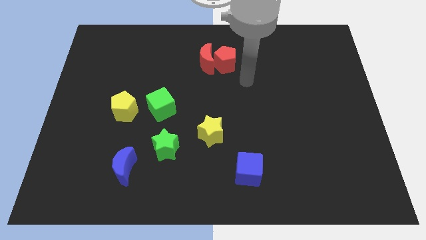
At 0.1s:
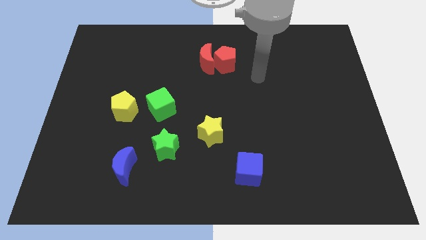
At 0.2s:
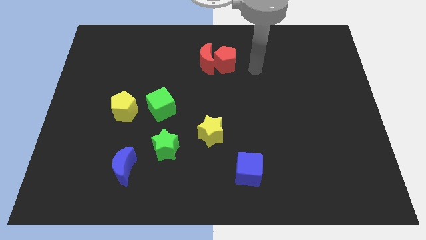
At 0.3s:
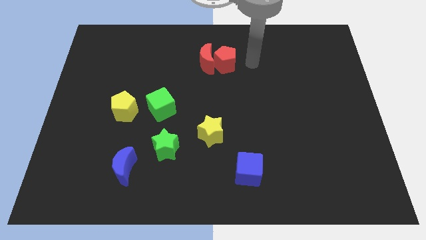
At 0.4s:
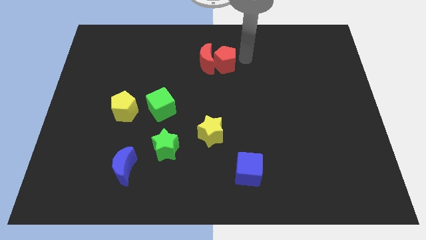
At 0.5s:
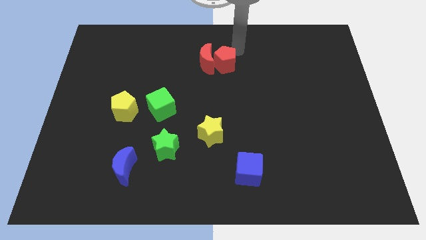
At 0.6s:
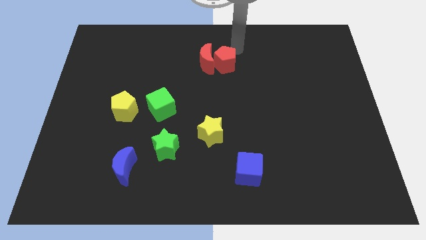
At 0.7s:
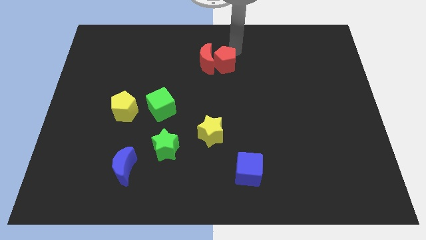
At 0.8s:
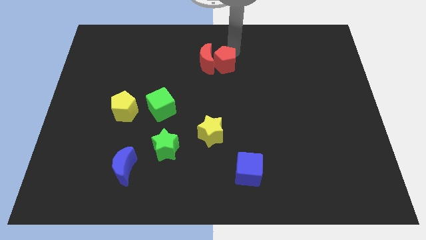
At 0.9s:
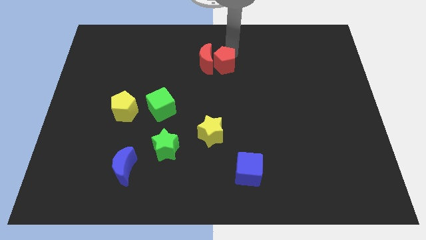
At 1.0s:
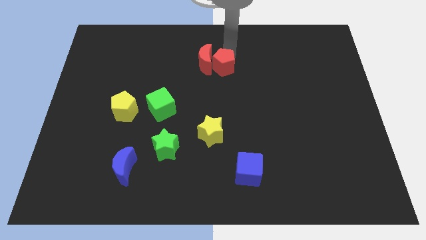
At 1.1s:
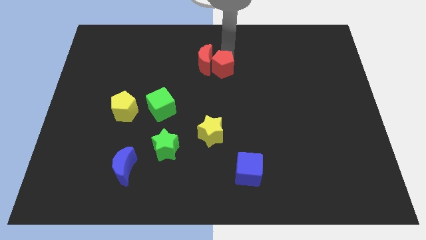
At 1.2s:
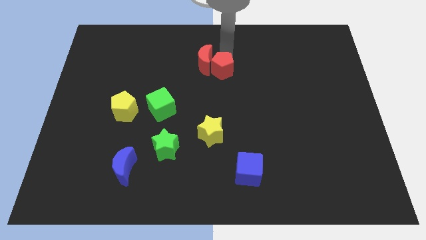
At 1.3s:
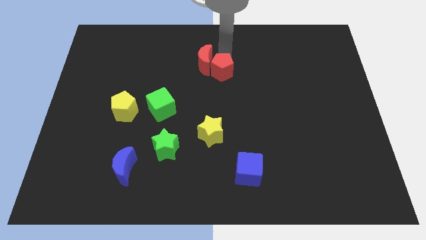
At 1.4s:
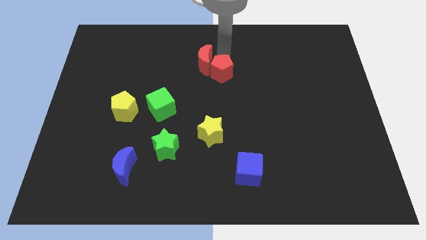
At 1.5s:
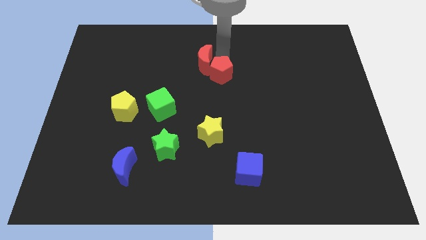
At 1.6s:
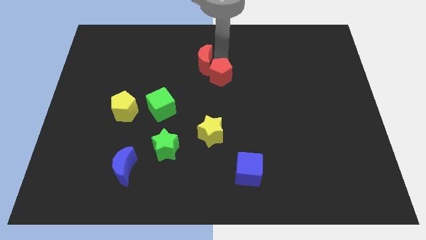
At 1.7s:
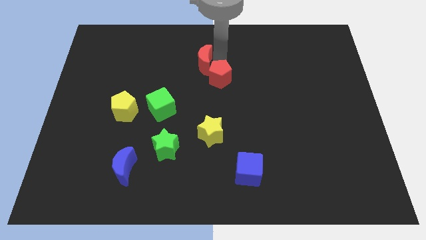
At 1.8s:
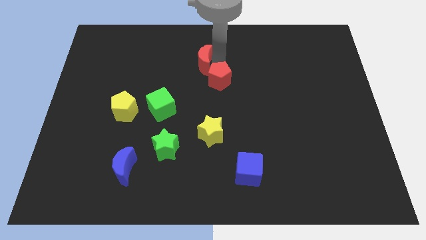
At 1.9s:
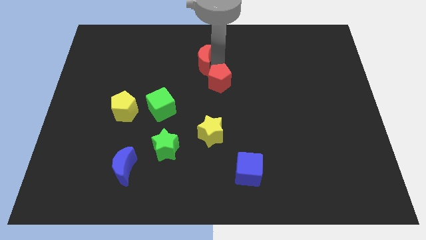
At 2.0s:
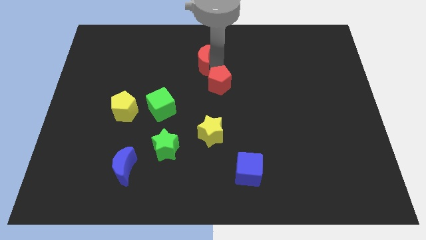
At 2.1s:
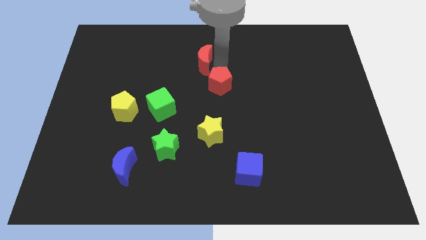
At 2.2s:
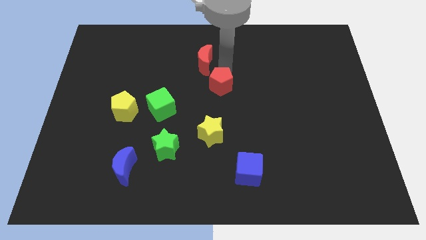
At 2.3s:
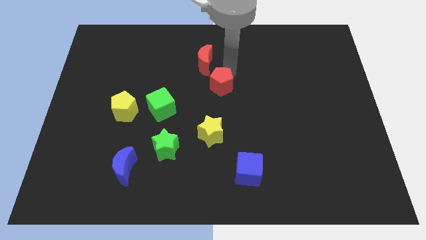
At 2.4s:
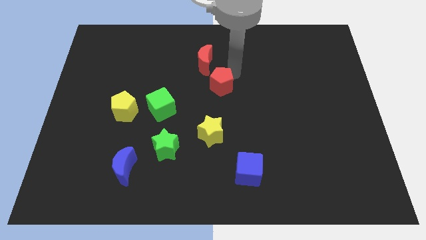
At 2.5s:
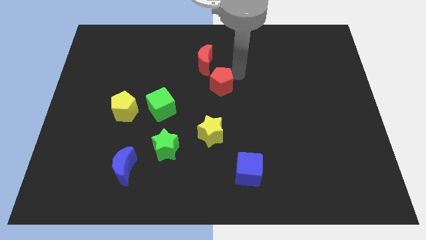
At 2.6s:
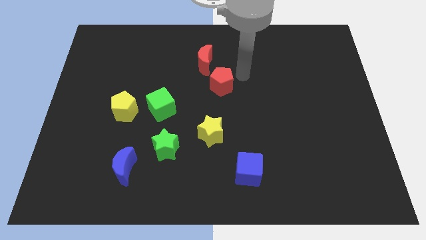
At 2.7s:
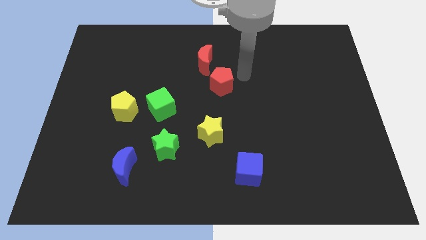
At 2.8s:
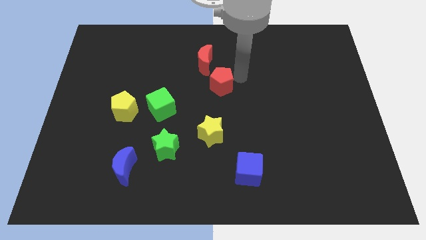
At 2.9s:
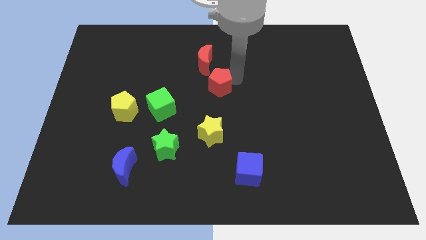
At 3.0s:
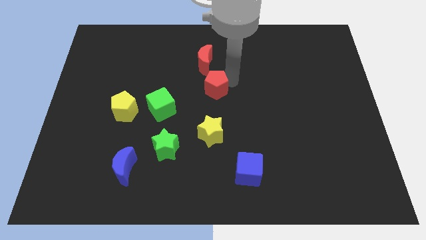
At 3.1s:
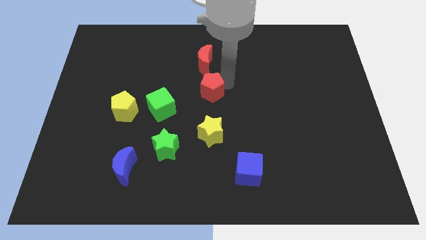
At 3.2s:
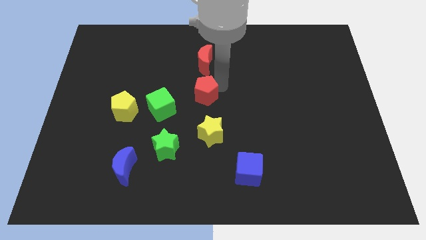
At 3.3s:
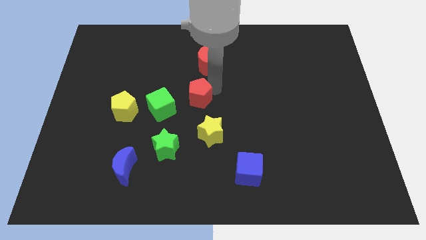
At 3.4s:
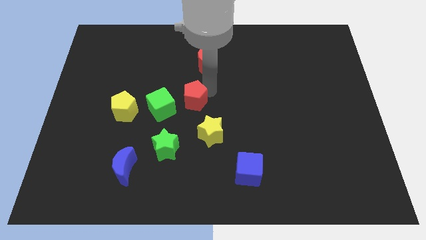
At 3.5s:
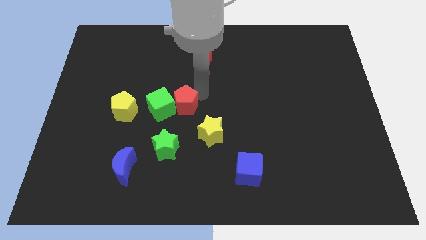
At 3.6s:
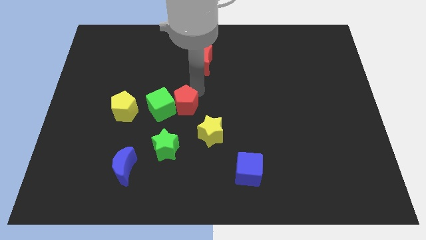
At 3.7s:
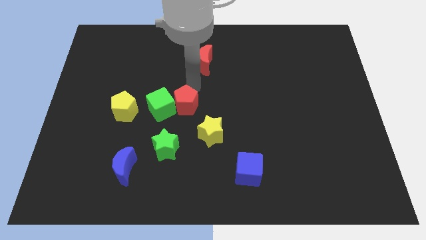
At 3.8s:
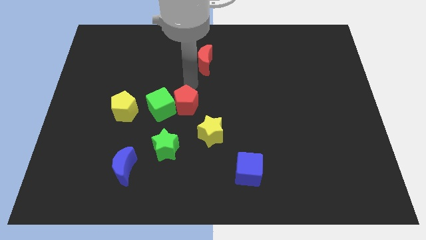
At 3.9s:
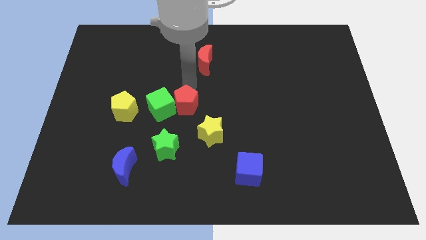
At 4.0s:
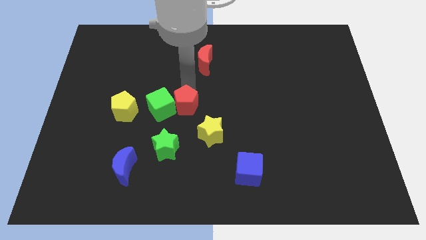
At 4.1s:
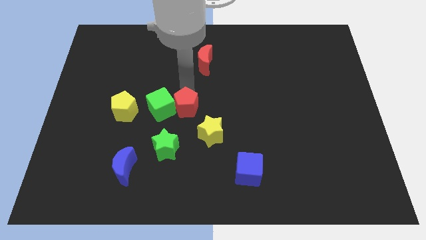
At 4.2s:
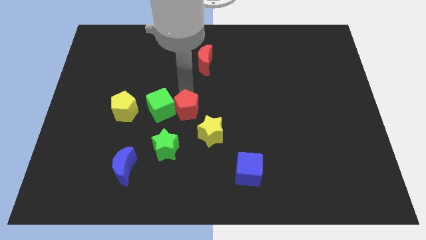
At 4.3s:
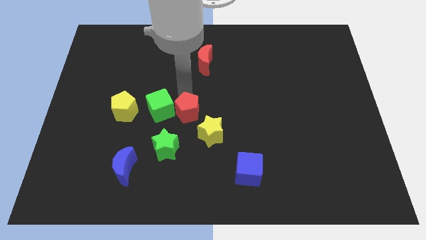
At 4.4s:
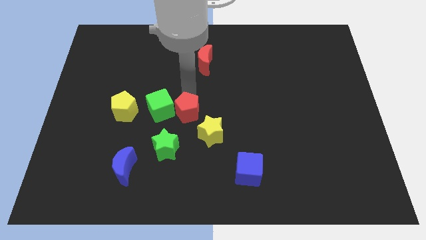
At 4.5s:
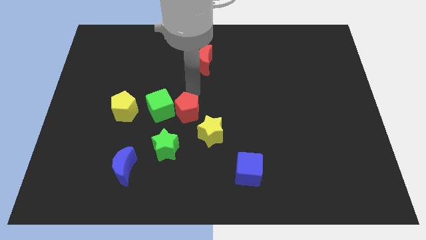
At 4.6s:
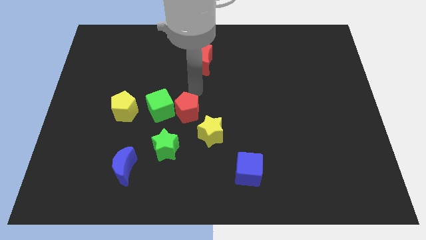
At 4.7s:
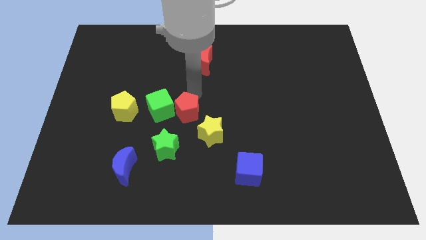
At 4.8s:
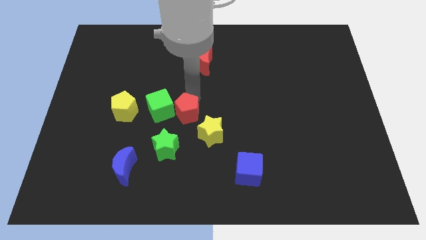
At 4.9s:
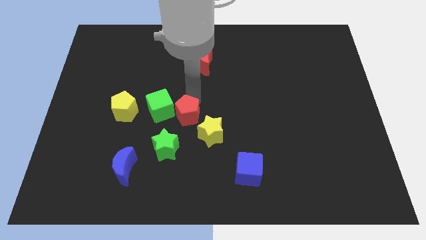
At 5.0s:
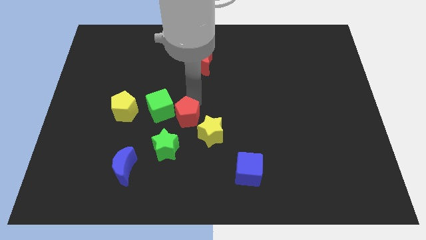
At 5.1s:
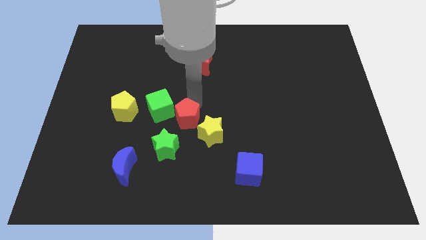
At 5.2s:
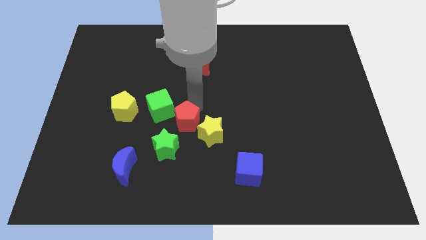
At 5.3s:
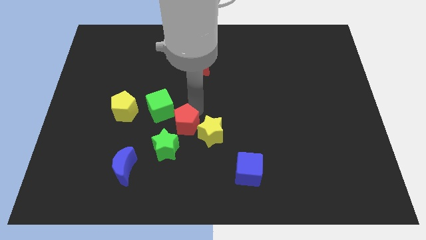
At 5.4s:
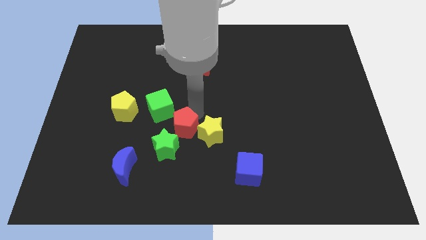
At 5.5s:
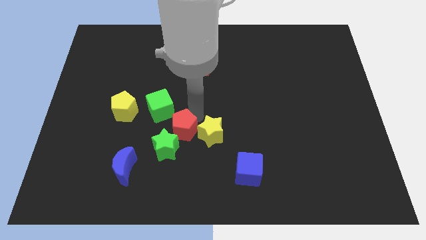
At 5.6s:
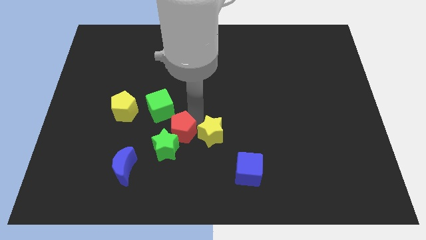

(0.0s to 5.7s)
move the red pentagon close to the green star

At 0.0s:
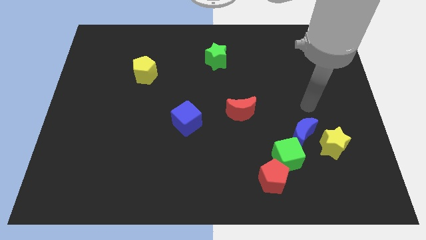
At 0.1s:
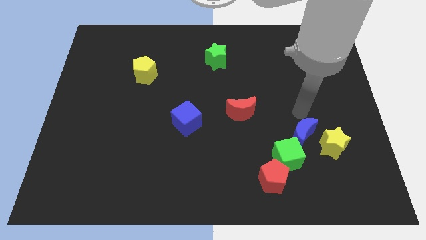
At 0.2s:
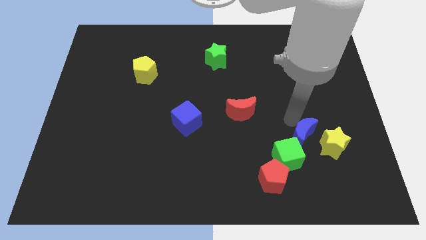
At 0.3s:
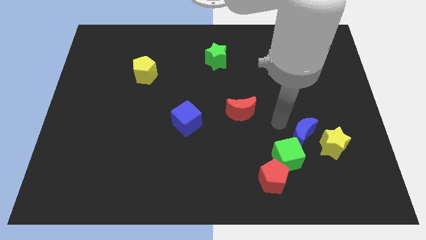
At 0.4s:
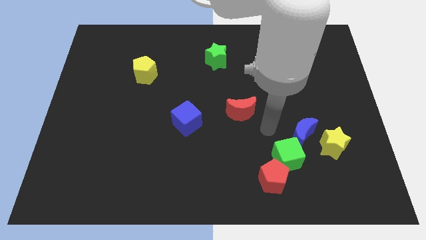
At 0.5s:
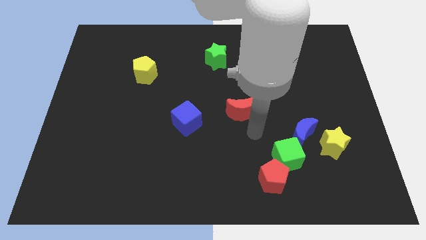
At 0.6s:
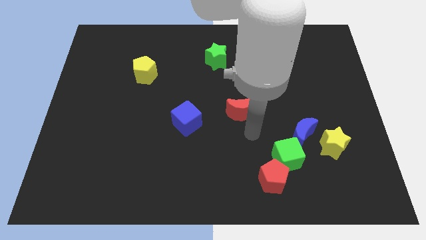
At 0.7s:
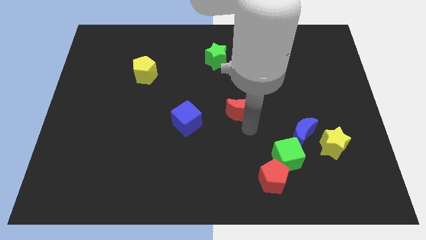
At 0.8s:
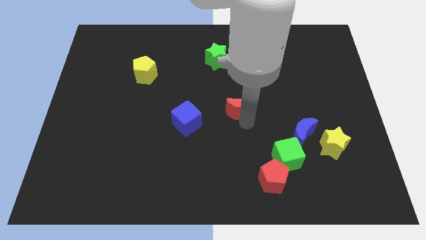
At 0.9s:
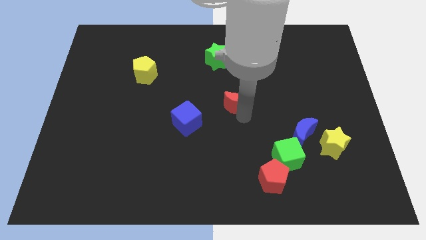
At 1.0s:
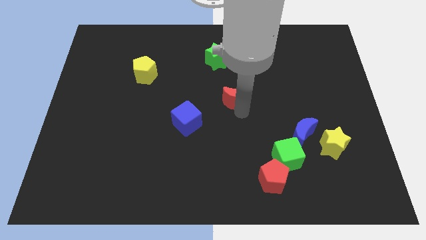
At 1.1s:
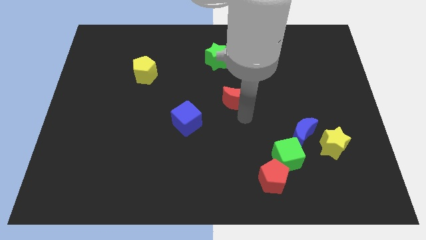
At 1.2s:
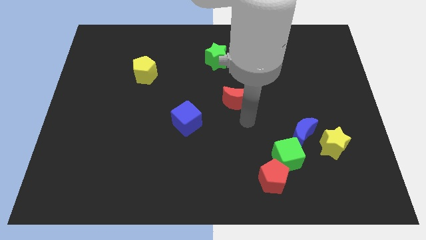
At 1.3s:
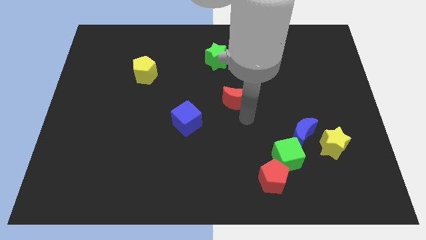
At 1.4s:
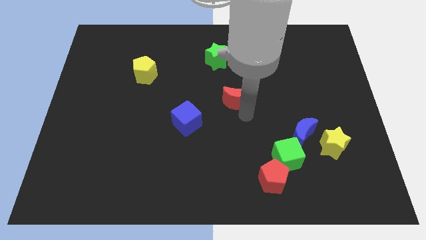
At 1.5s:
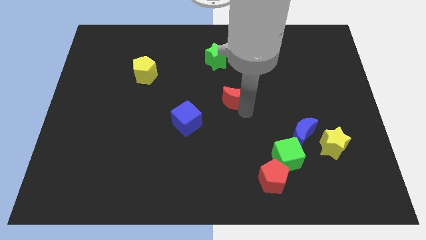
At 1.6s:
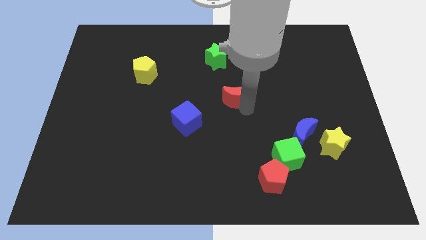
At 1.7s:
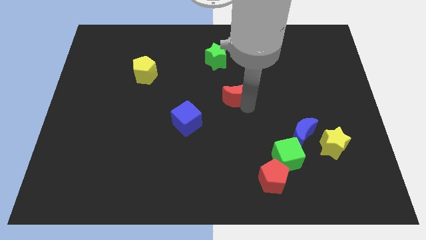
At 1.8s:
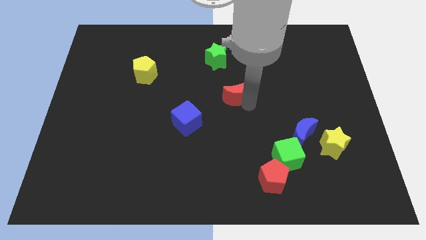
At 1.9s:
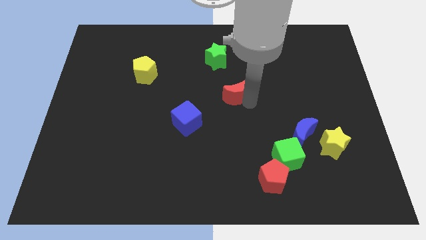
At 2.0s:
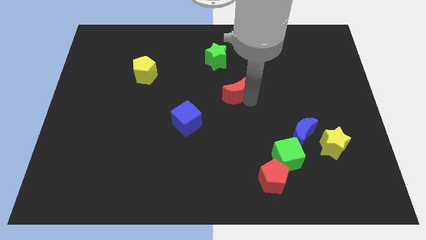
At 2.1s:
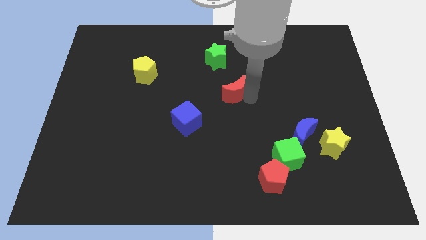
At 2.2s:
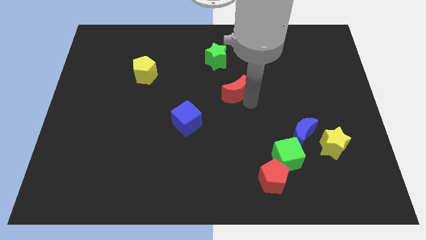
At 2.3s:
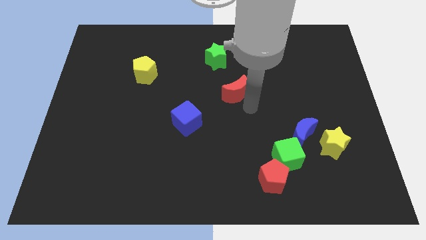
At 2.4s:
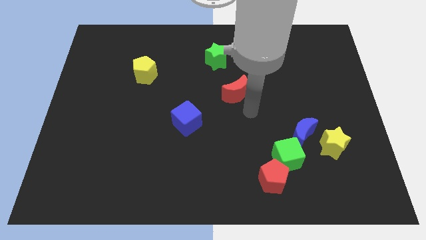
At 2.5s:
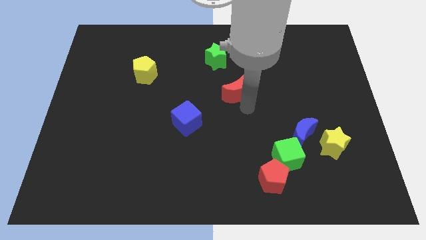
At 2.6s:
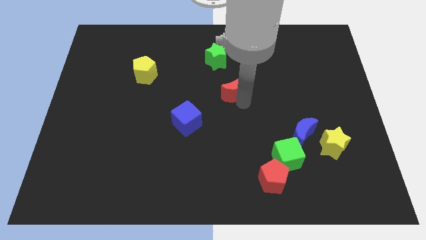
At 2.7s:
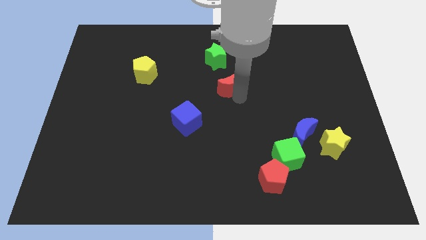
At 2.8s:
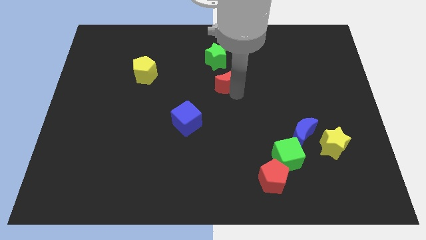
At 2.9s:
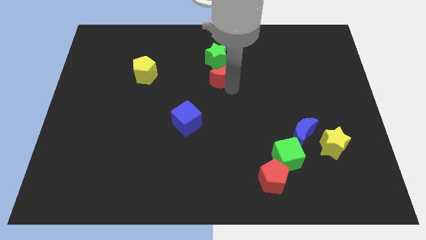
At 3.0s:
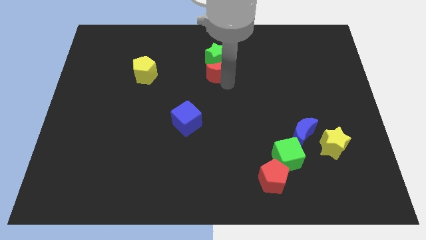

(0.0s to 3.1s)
push the red moon next to the green star
